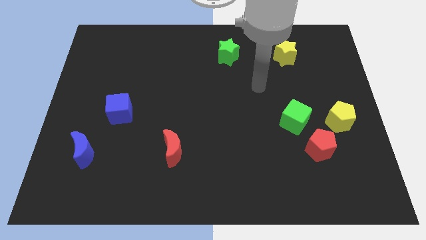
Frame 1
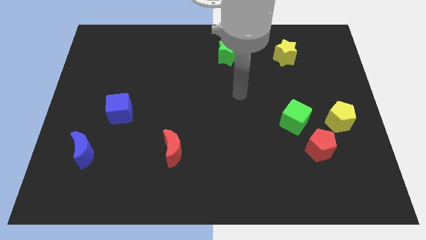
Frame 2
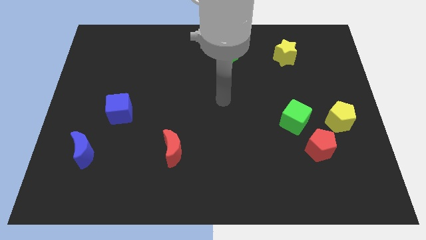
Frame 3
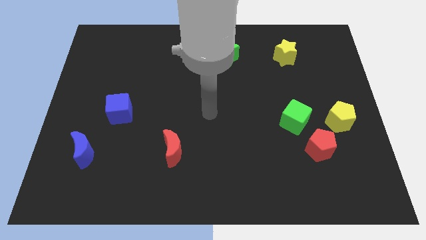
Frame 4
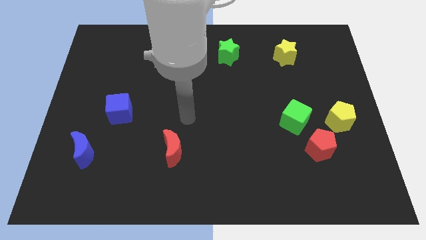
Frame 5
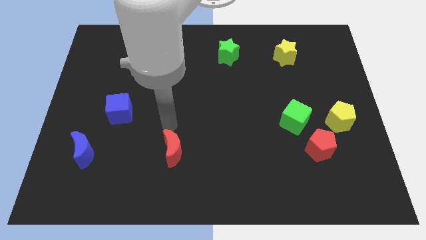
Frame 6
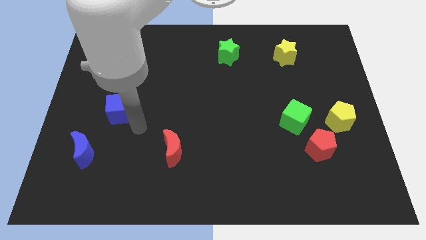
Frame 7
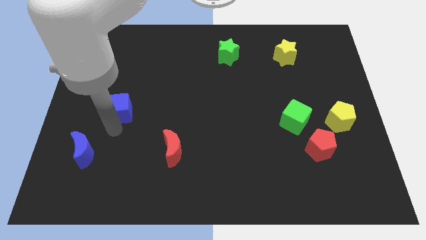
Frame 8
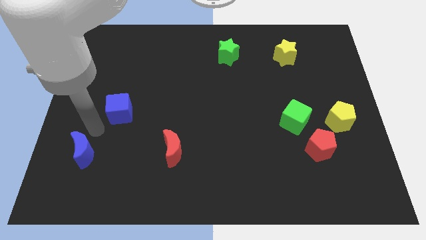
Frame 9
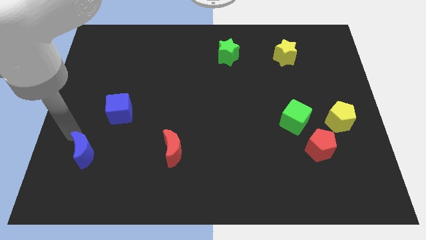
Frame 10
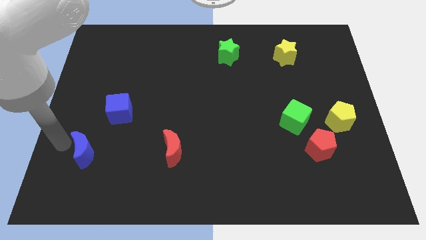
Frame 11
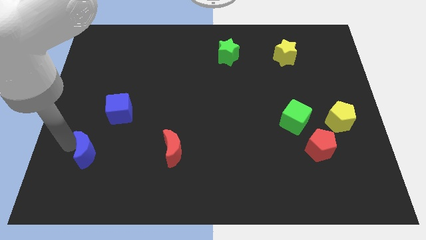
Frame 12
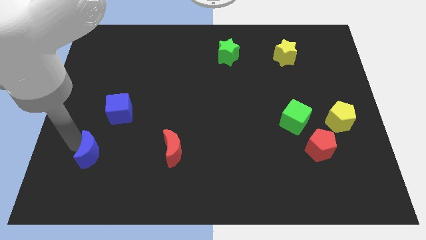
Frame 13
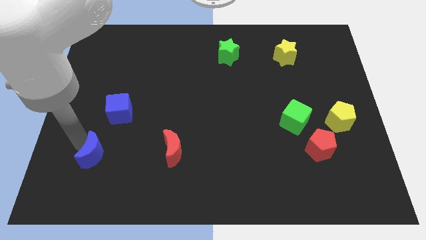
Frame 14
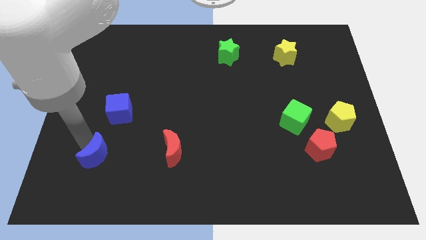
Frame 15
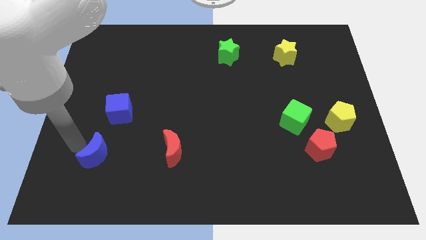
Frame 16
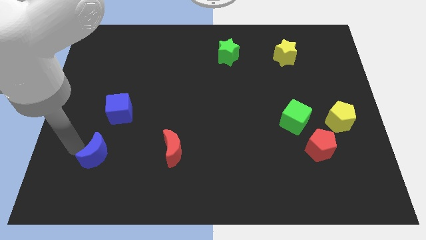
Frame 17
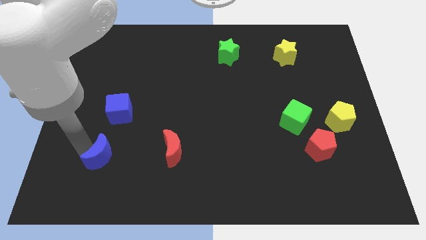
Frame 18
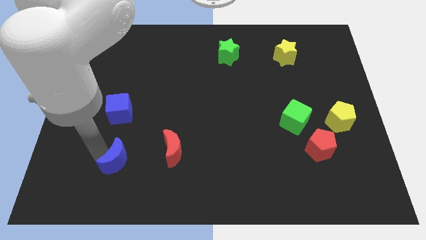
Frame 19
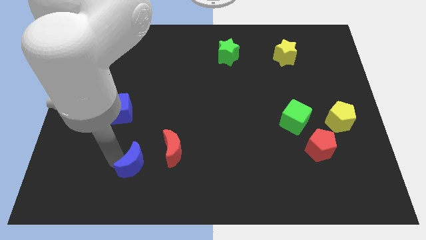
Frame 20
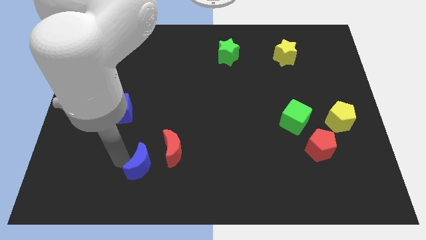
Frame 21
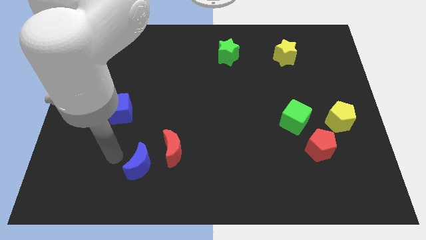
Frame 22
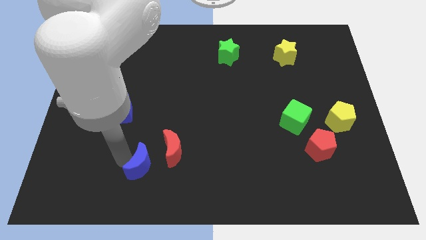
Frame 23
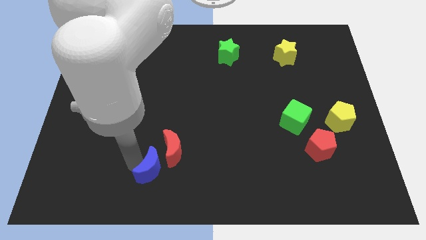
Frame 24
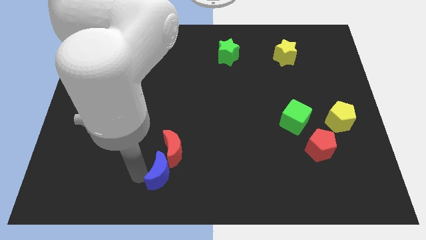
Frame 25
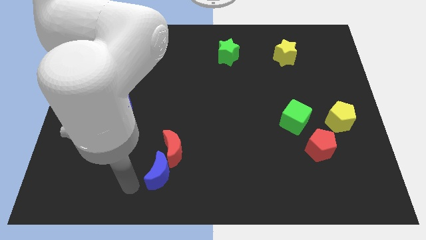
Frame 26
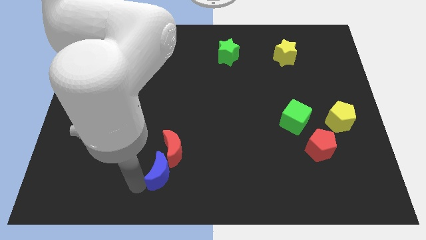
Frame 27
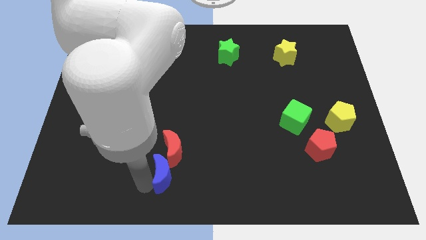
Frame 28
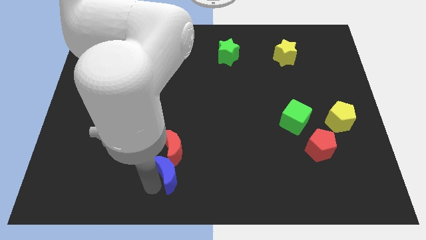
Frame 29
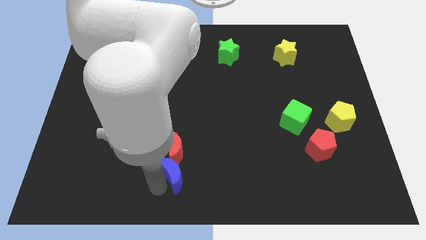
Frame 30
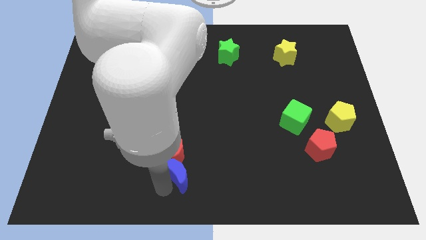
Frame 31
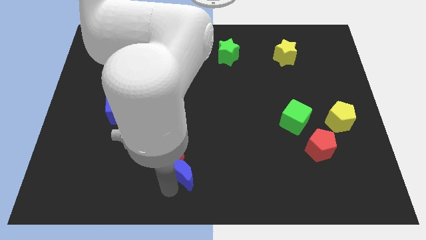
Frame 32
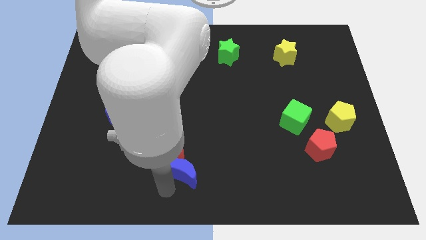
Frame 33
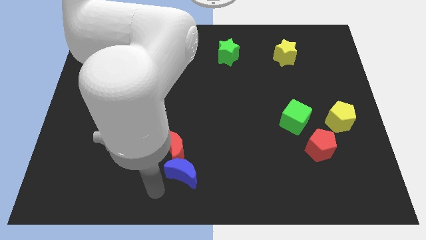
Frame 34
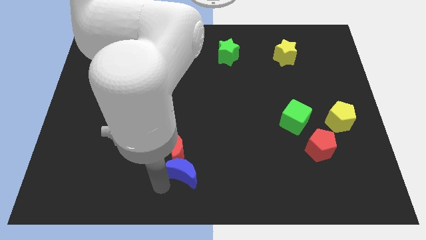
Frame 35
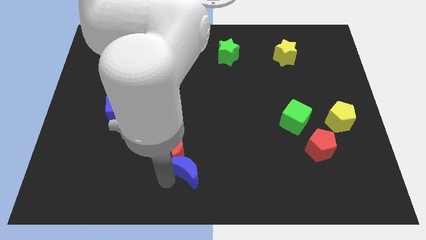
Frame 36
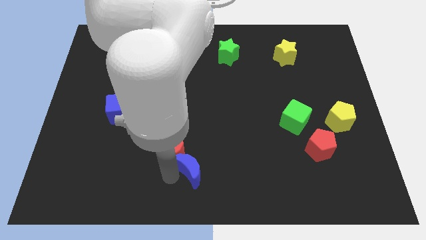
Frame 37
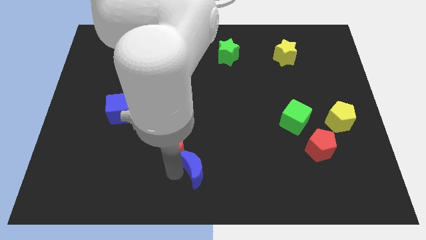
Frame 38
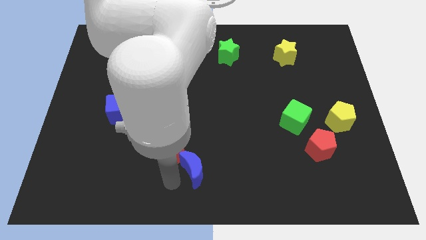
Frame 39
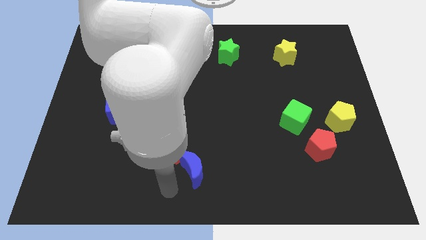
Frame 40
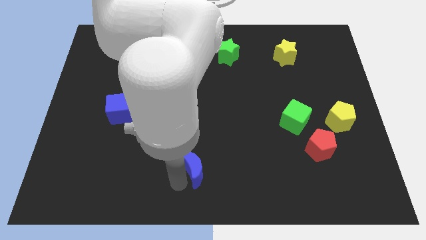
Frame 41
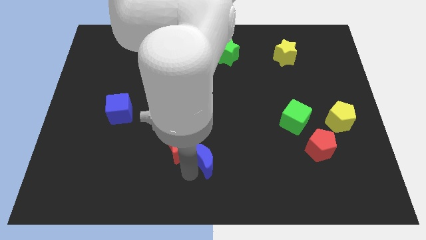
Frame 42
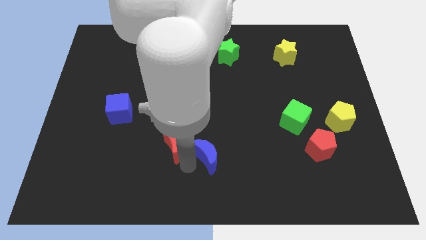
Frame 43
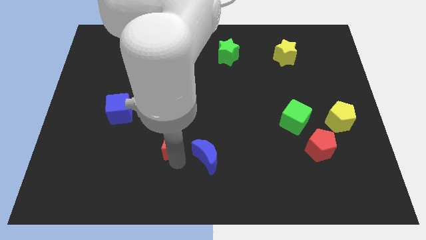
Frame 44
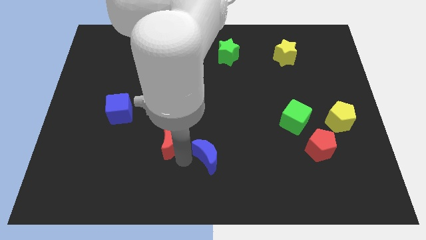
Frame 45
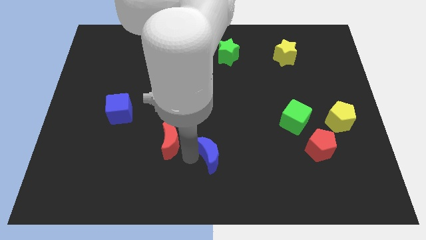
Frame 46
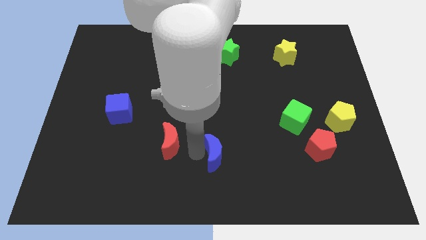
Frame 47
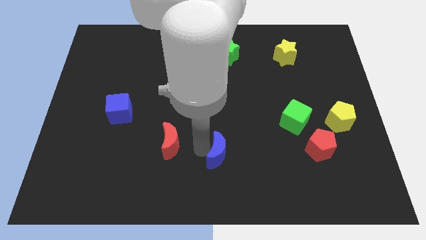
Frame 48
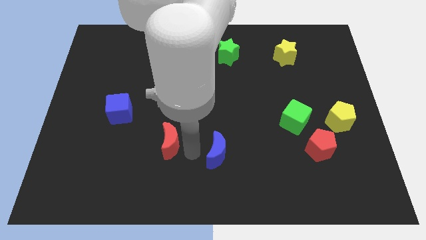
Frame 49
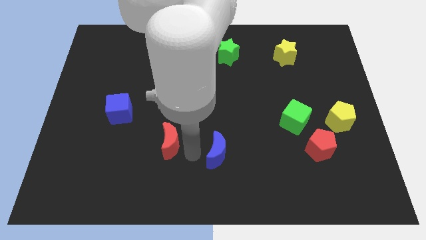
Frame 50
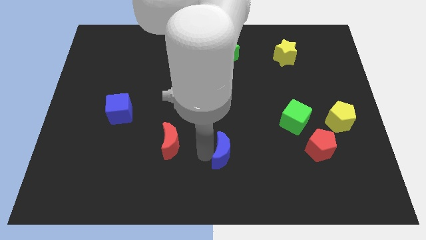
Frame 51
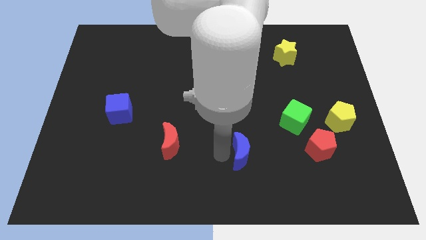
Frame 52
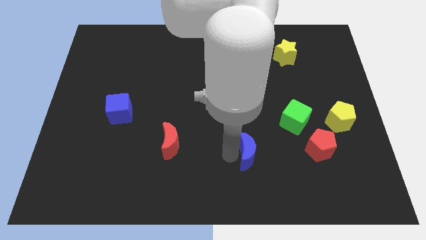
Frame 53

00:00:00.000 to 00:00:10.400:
slide the blue moon to the left of the red pentagon

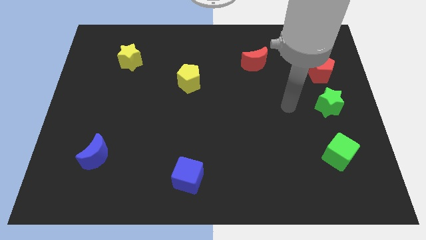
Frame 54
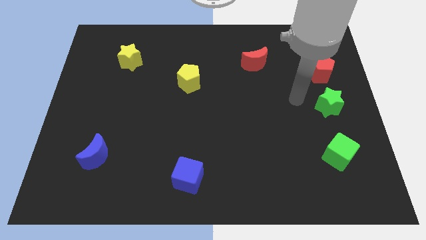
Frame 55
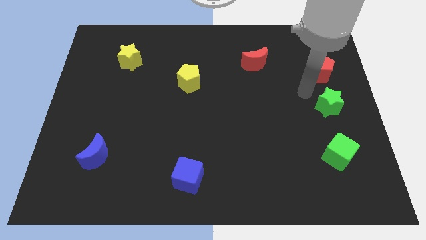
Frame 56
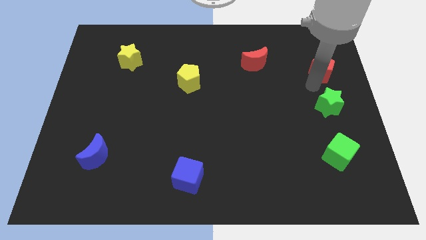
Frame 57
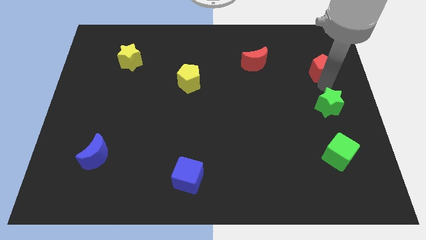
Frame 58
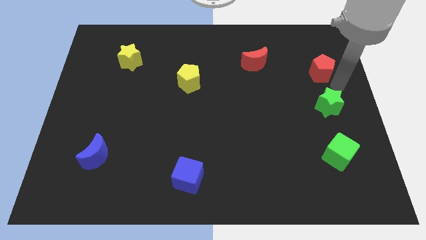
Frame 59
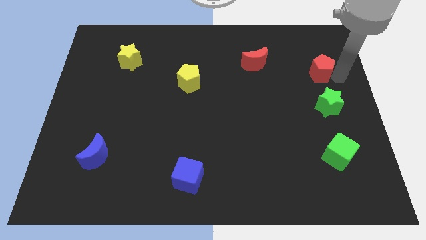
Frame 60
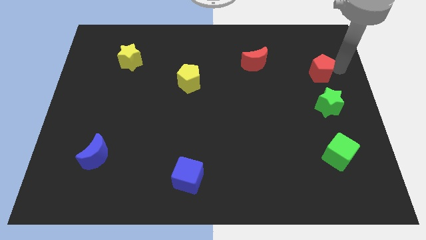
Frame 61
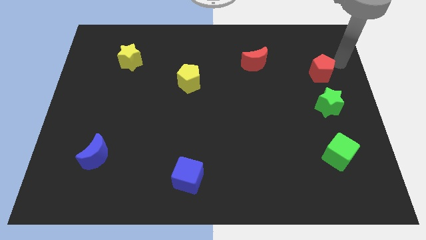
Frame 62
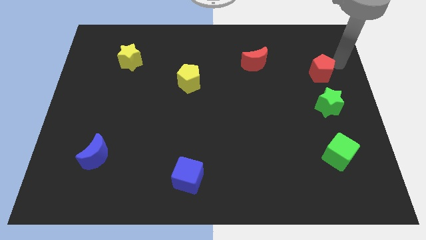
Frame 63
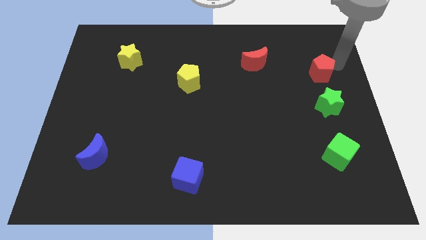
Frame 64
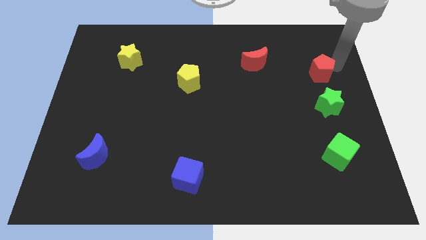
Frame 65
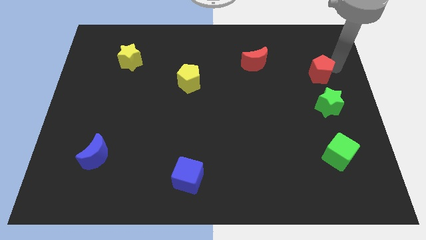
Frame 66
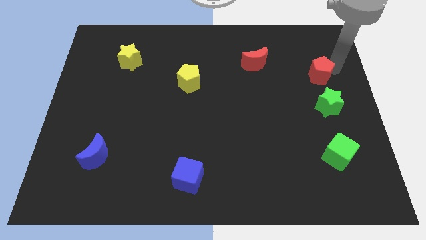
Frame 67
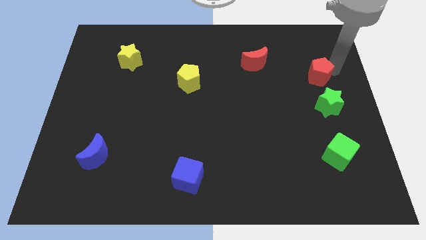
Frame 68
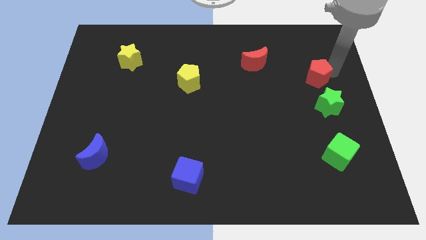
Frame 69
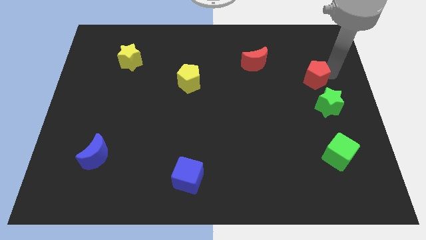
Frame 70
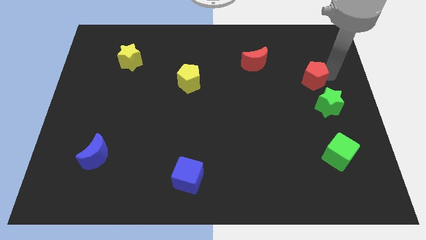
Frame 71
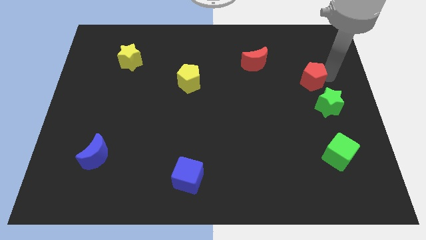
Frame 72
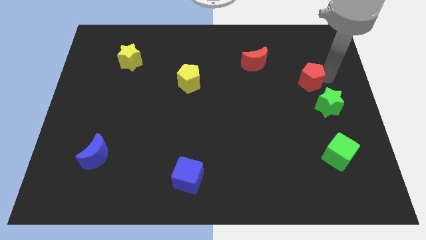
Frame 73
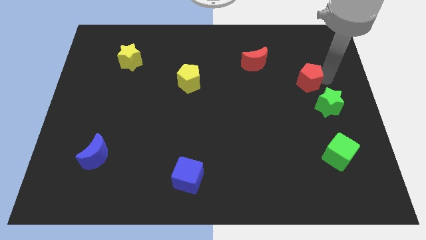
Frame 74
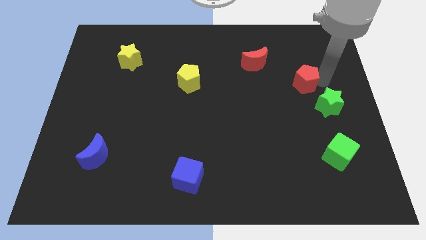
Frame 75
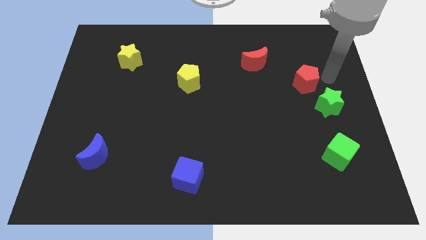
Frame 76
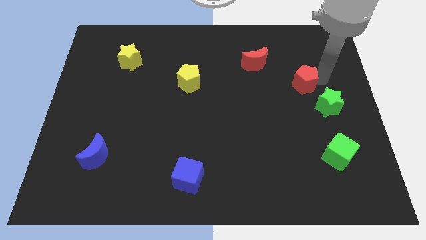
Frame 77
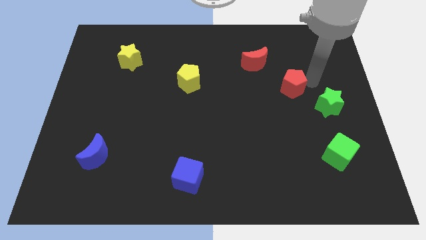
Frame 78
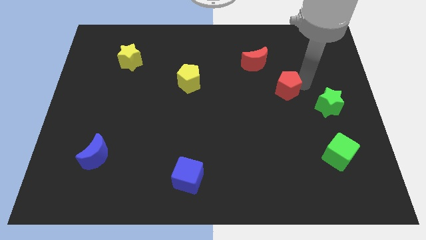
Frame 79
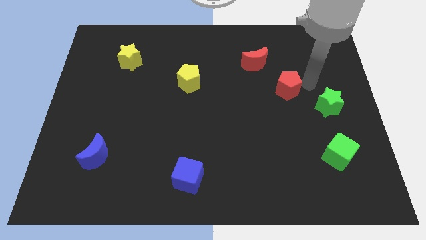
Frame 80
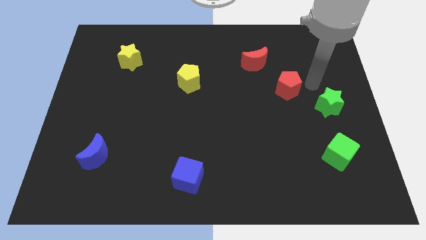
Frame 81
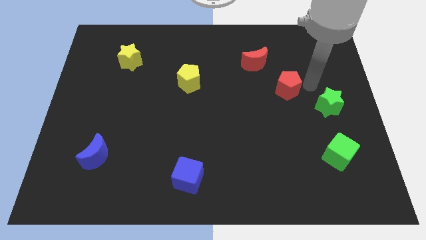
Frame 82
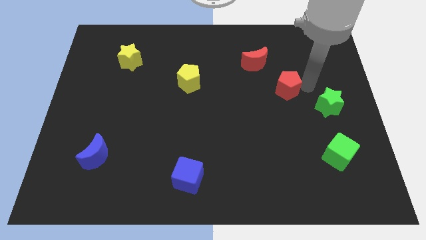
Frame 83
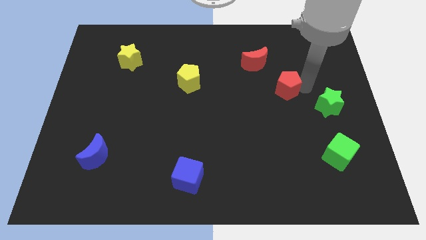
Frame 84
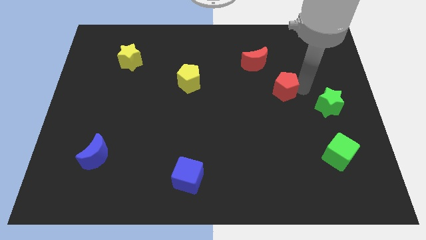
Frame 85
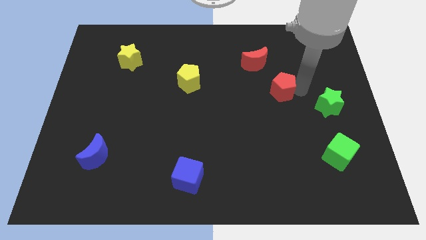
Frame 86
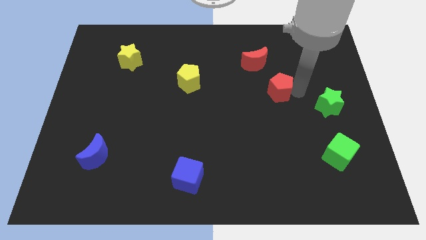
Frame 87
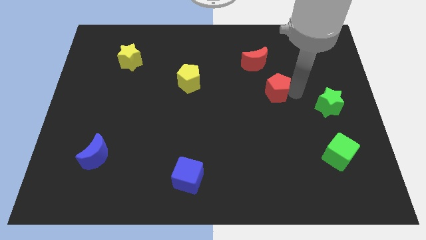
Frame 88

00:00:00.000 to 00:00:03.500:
slide the red pentagon below the red moon
